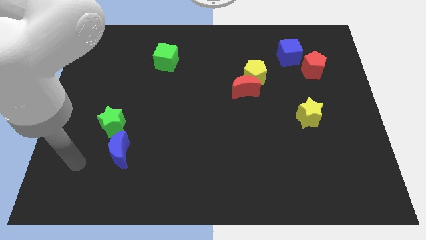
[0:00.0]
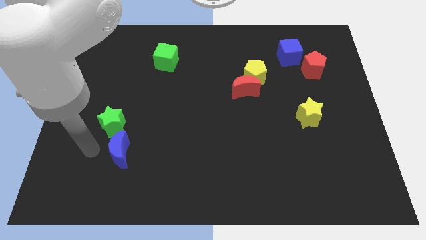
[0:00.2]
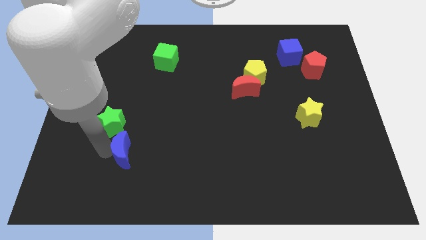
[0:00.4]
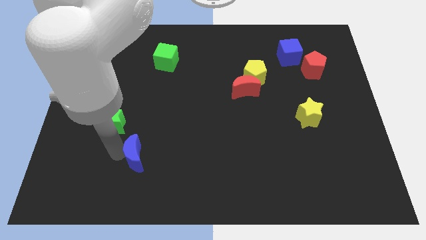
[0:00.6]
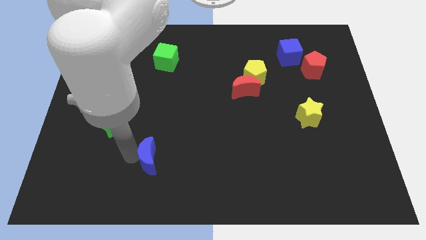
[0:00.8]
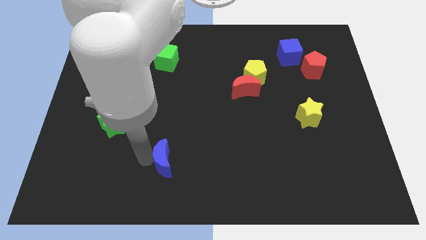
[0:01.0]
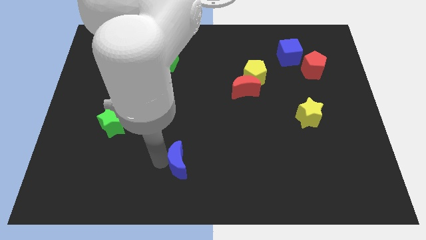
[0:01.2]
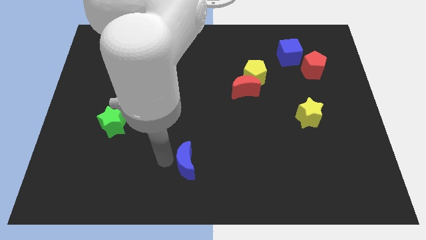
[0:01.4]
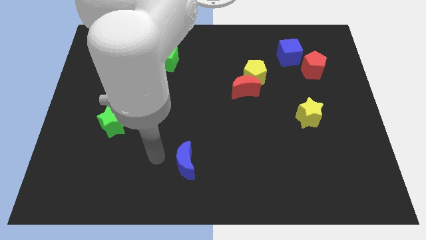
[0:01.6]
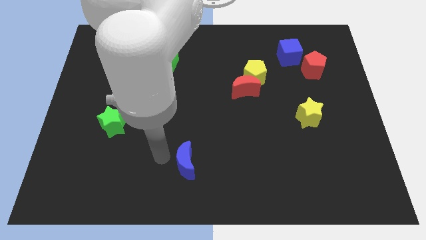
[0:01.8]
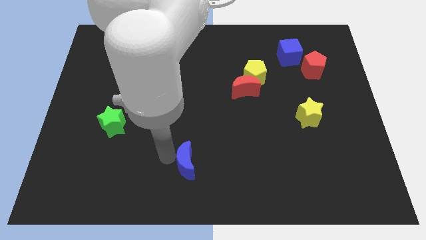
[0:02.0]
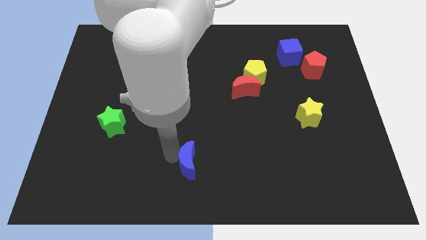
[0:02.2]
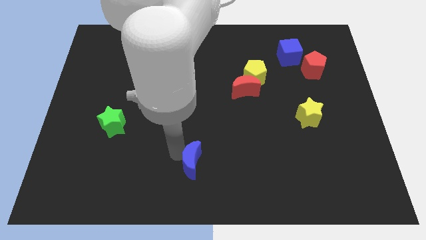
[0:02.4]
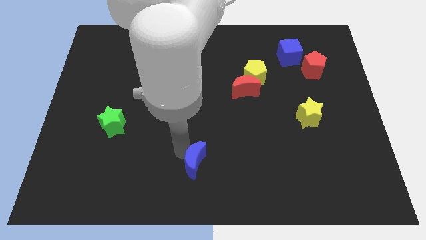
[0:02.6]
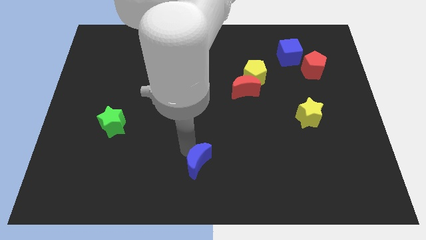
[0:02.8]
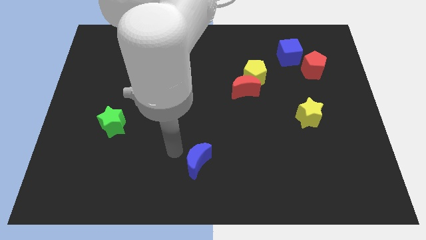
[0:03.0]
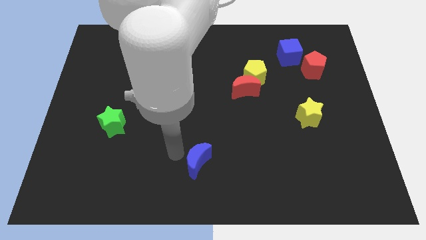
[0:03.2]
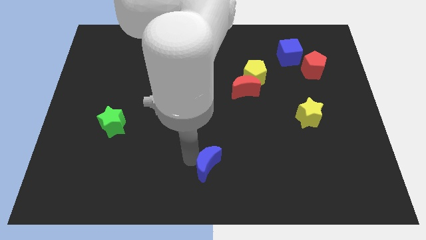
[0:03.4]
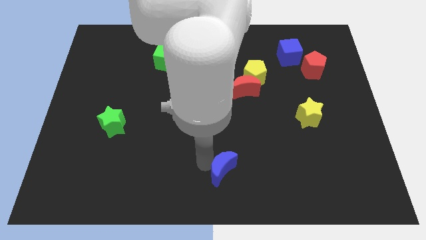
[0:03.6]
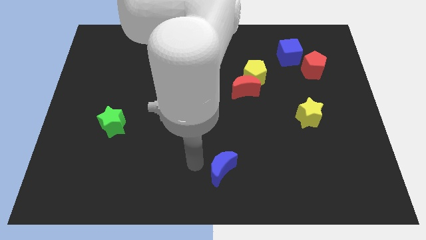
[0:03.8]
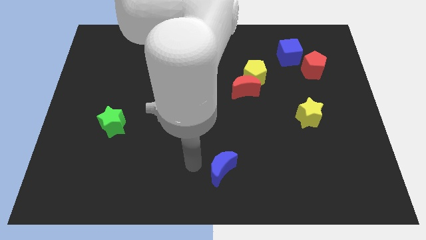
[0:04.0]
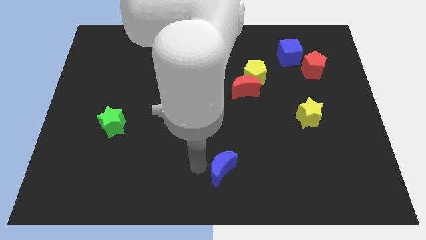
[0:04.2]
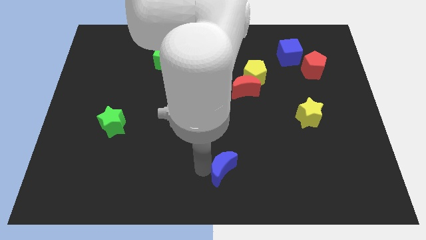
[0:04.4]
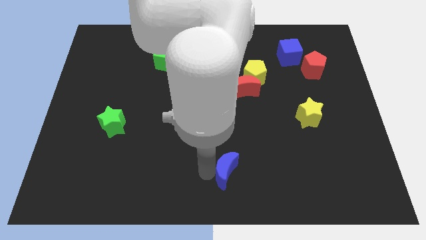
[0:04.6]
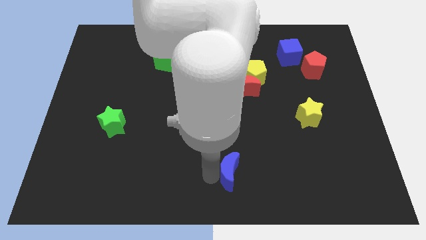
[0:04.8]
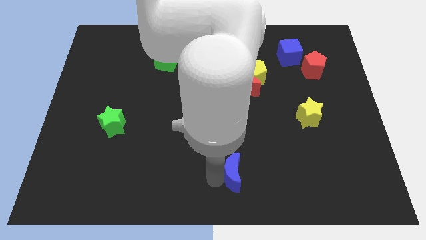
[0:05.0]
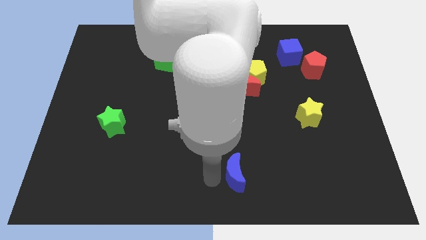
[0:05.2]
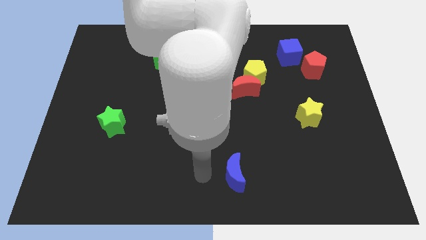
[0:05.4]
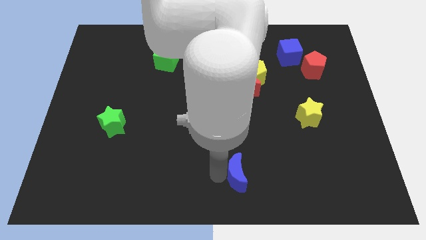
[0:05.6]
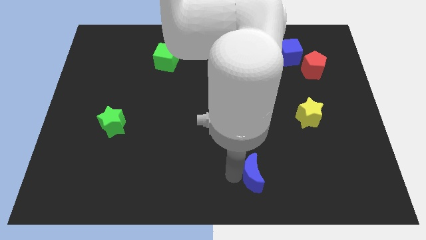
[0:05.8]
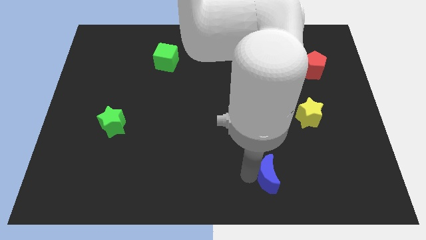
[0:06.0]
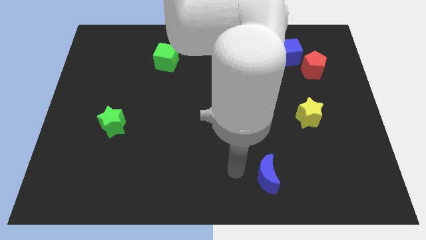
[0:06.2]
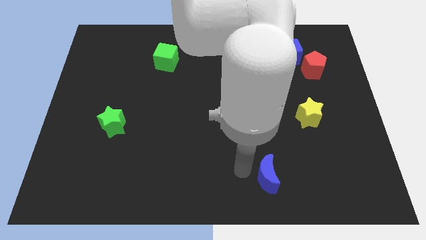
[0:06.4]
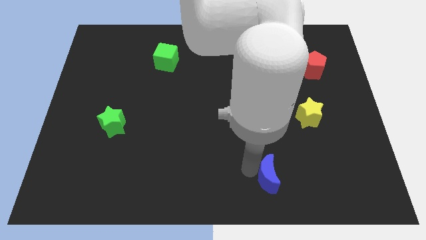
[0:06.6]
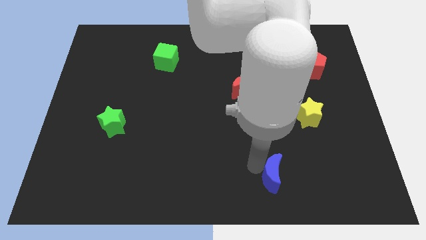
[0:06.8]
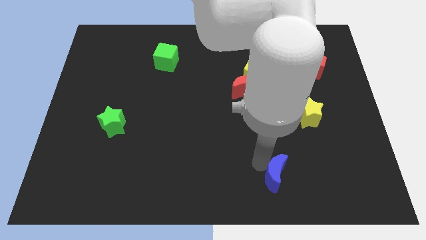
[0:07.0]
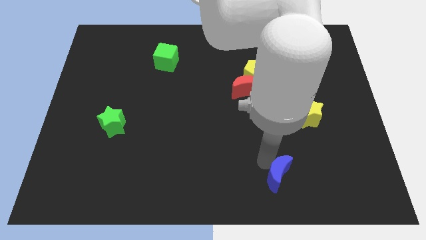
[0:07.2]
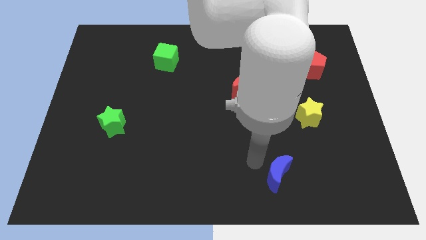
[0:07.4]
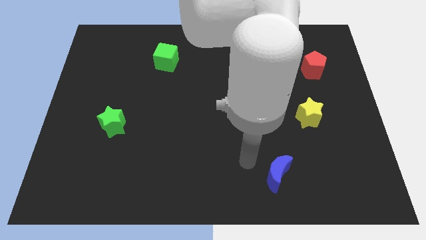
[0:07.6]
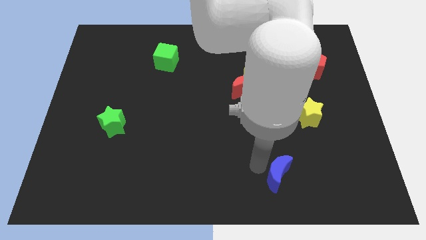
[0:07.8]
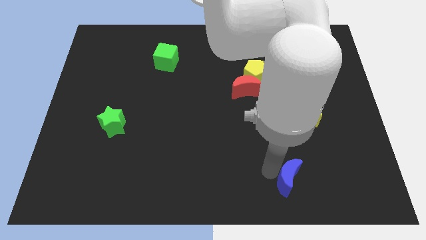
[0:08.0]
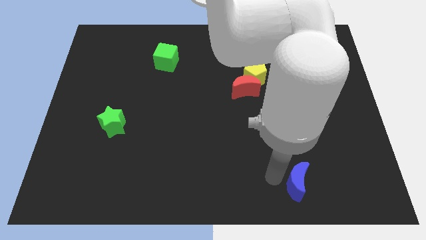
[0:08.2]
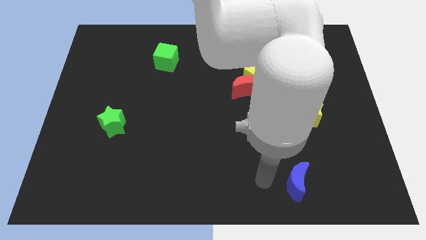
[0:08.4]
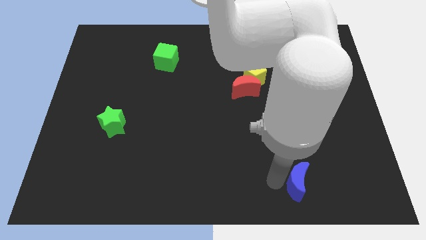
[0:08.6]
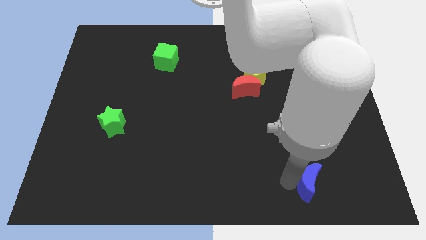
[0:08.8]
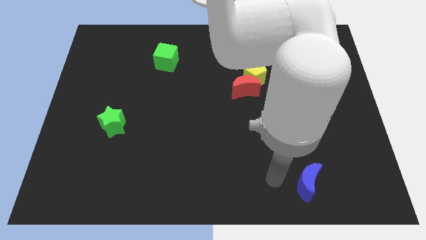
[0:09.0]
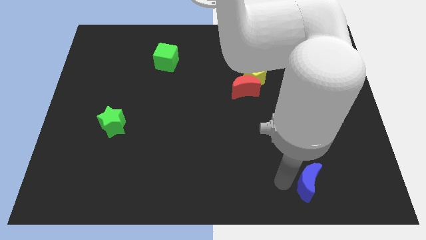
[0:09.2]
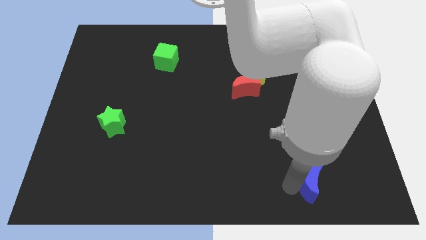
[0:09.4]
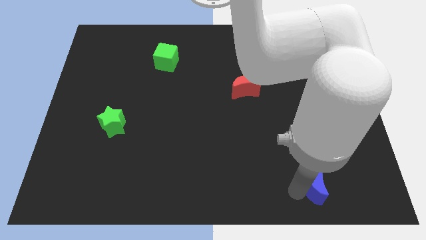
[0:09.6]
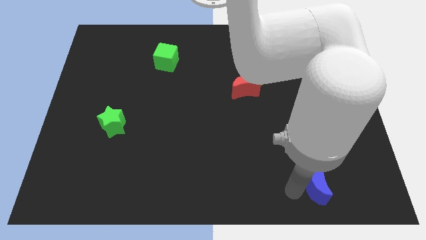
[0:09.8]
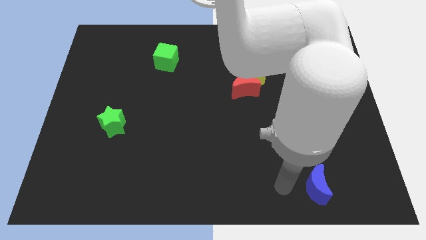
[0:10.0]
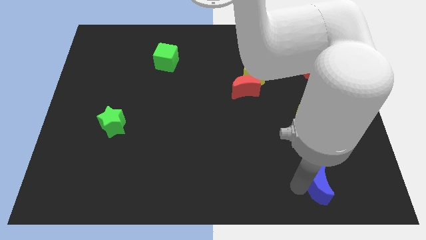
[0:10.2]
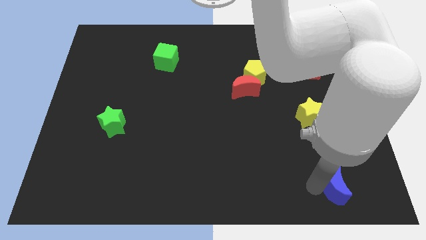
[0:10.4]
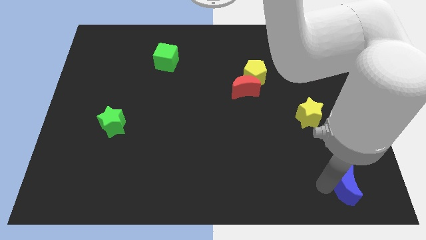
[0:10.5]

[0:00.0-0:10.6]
move the blue moon to the bottom right
